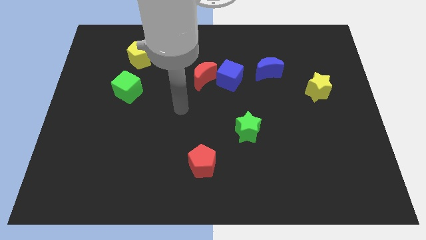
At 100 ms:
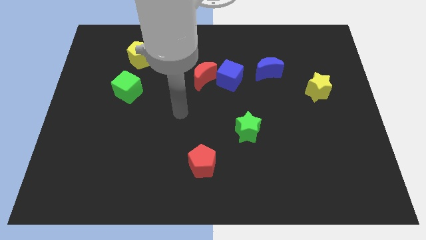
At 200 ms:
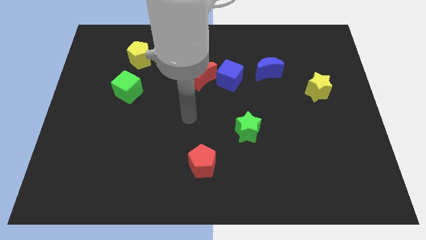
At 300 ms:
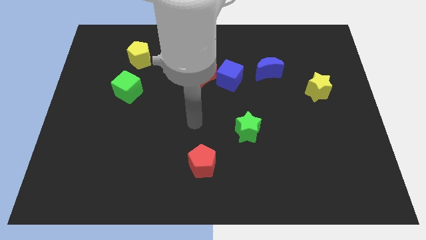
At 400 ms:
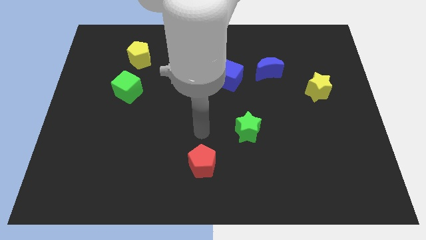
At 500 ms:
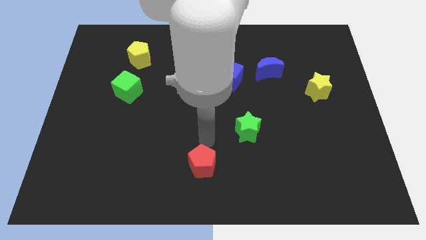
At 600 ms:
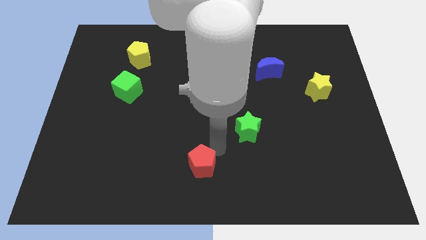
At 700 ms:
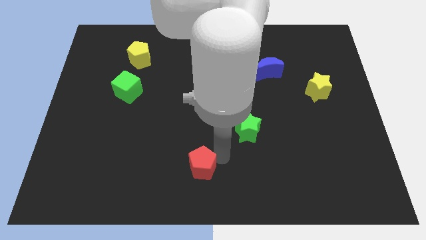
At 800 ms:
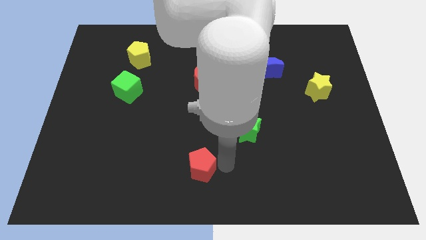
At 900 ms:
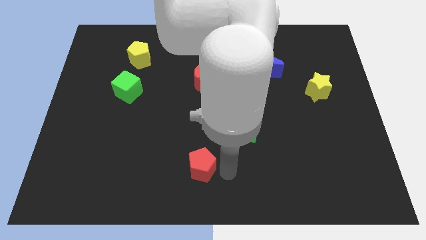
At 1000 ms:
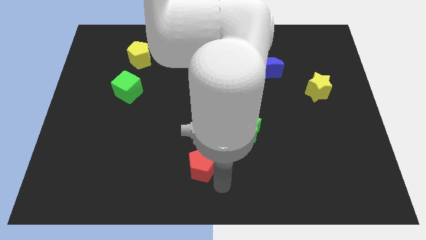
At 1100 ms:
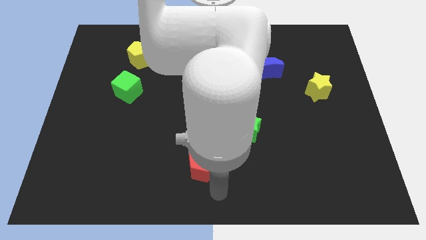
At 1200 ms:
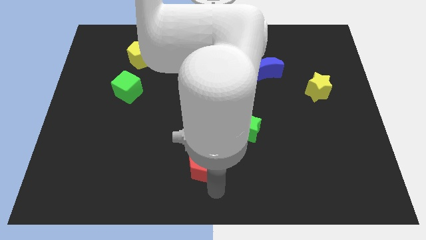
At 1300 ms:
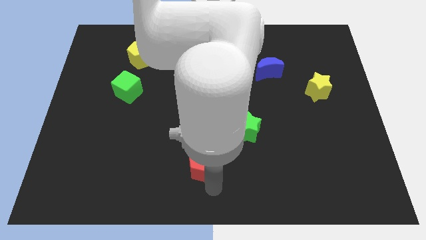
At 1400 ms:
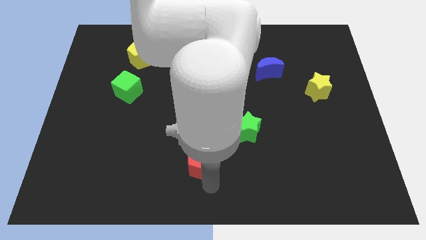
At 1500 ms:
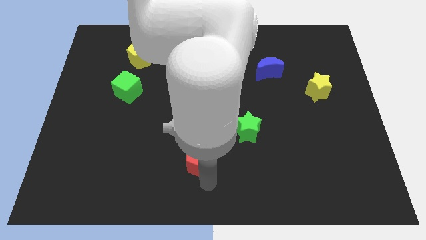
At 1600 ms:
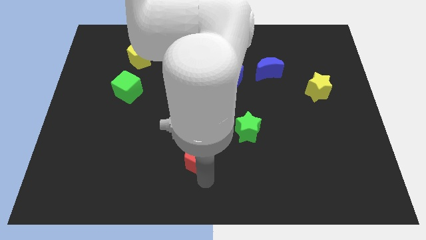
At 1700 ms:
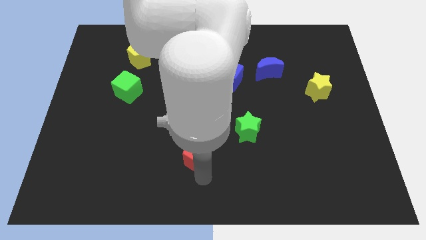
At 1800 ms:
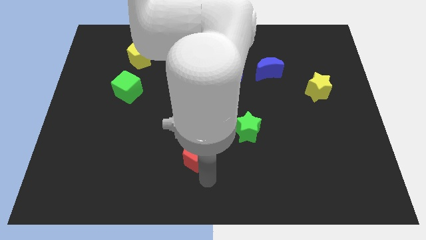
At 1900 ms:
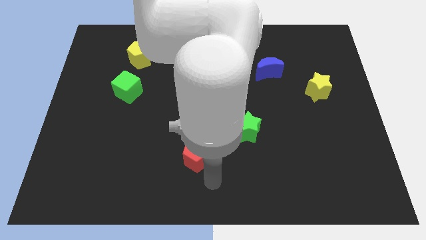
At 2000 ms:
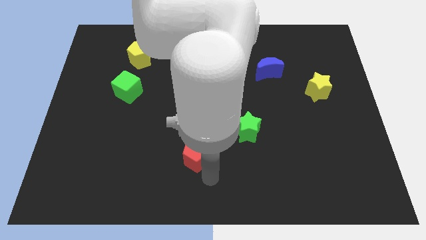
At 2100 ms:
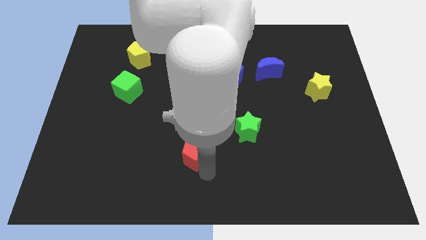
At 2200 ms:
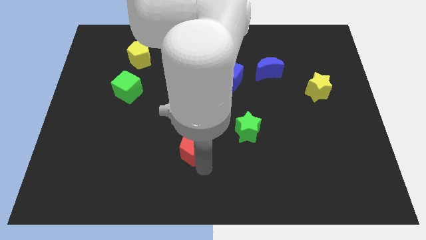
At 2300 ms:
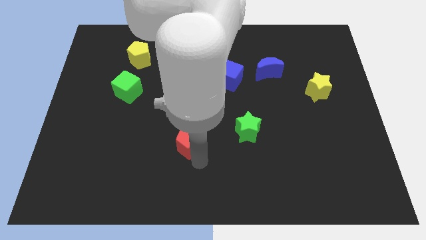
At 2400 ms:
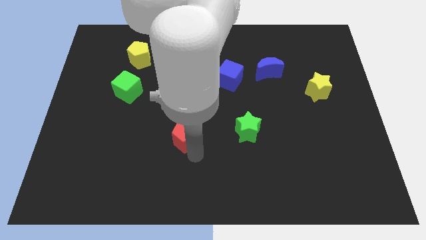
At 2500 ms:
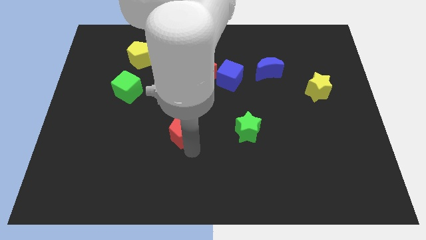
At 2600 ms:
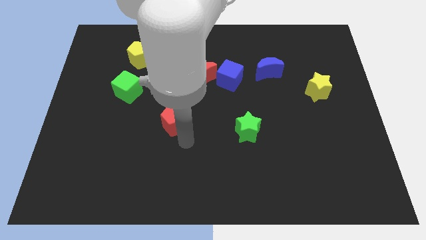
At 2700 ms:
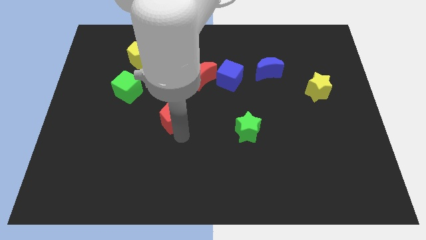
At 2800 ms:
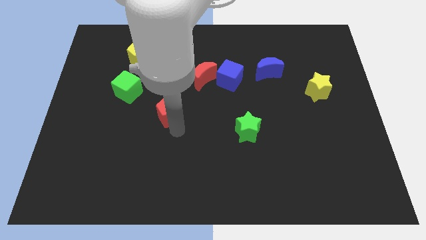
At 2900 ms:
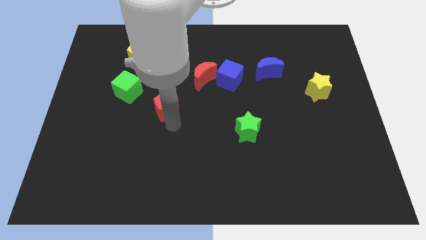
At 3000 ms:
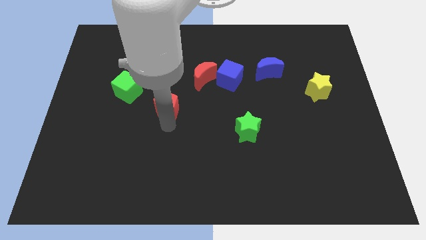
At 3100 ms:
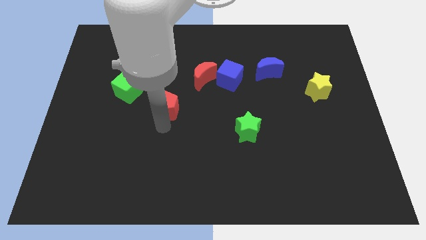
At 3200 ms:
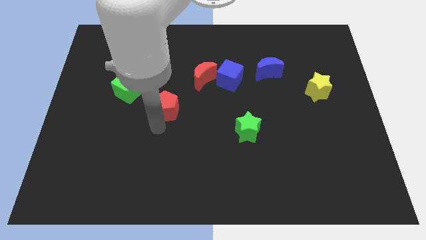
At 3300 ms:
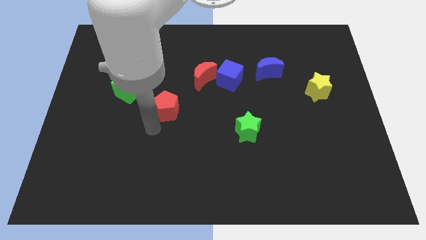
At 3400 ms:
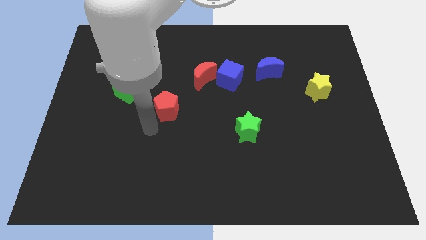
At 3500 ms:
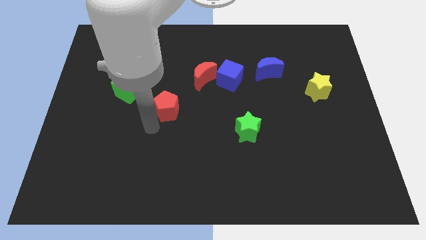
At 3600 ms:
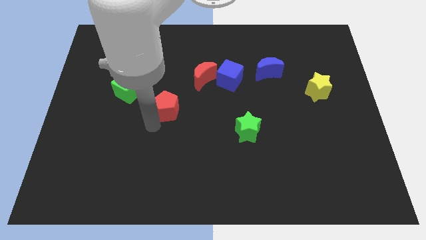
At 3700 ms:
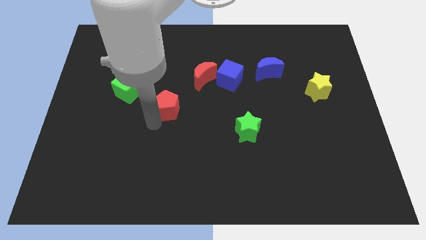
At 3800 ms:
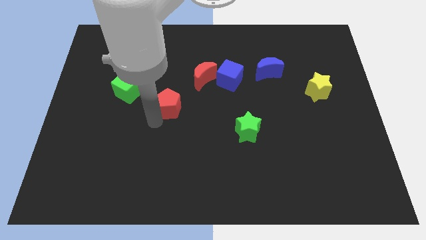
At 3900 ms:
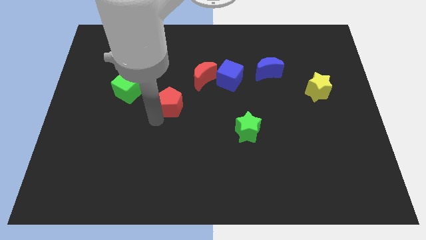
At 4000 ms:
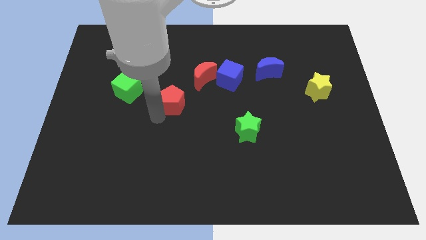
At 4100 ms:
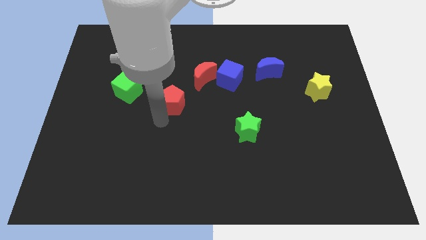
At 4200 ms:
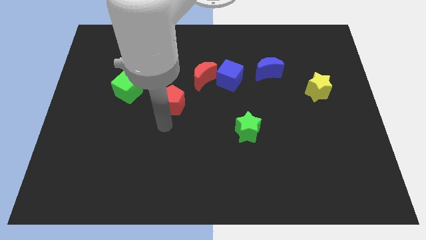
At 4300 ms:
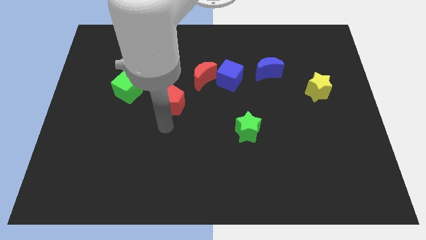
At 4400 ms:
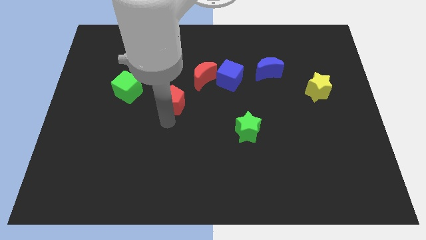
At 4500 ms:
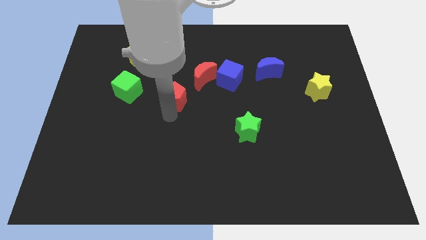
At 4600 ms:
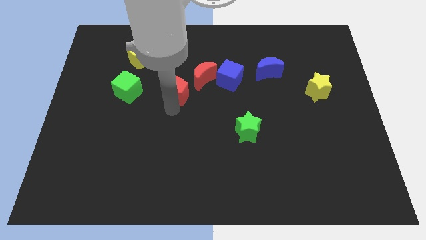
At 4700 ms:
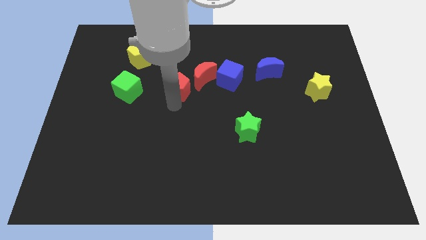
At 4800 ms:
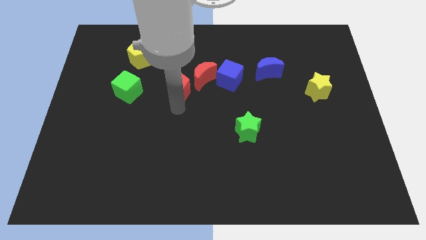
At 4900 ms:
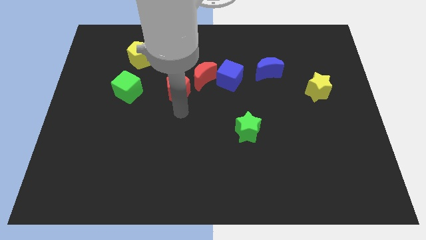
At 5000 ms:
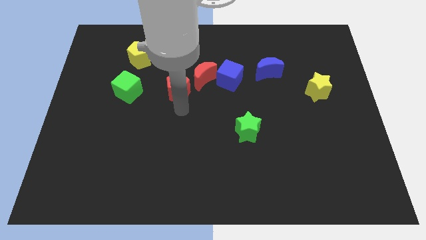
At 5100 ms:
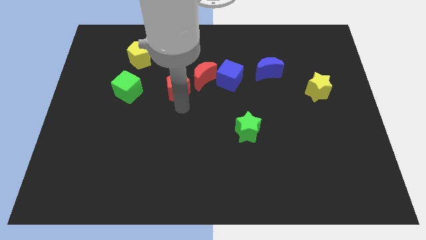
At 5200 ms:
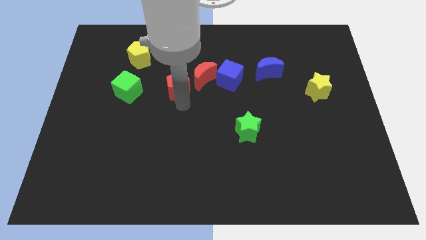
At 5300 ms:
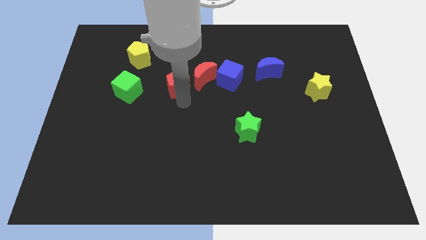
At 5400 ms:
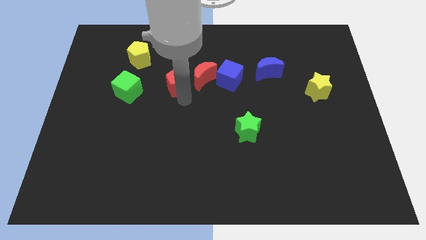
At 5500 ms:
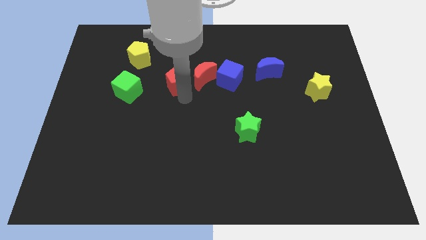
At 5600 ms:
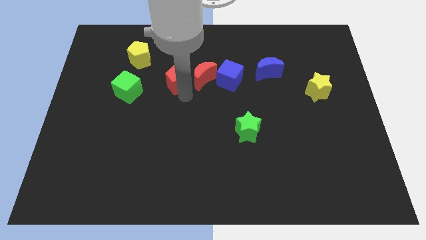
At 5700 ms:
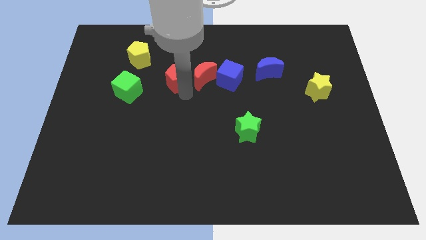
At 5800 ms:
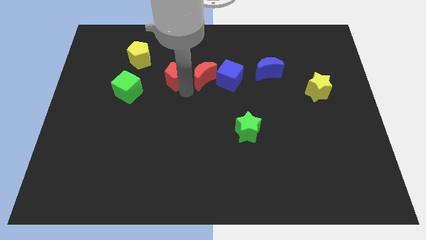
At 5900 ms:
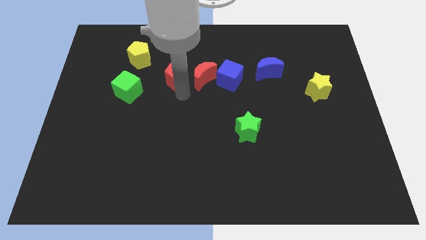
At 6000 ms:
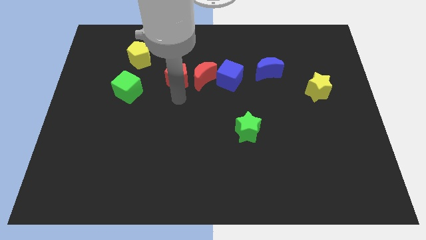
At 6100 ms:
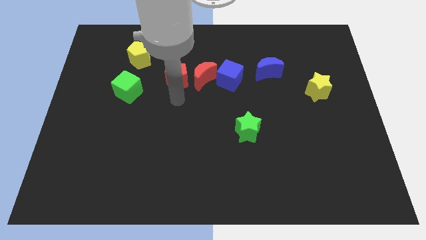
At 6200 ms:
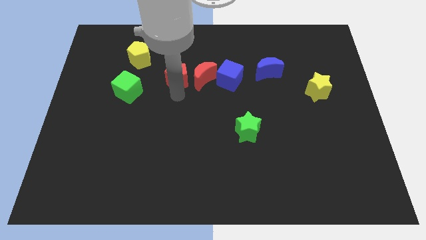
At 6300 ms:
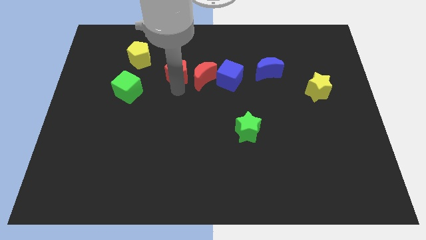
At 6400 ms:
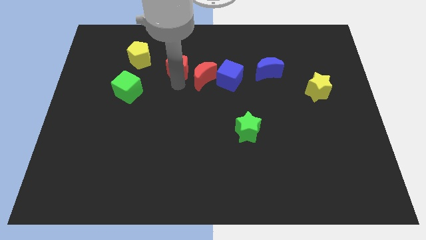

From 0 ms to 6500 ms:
move the red pentagon to the right side of the yellow pentagon

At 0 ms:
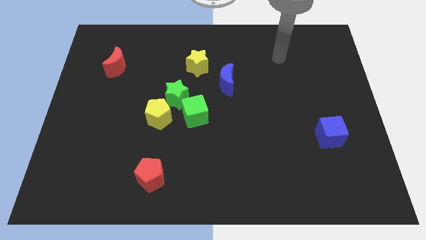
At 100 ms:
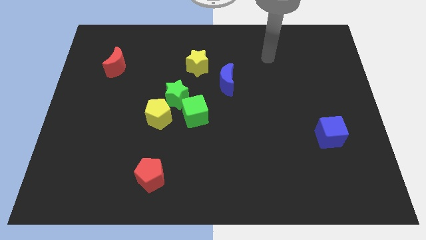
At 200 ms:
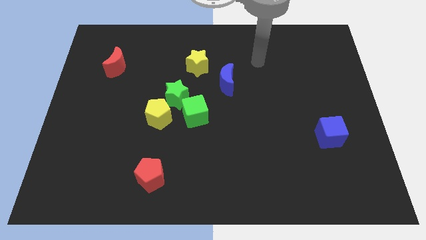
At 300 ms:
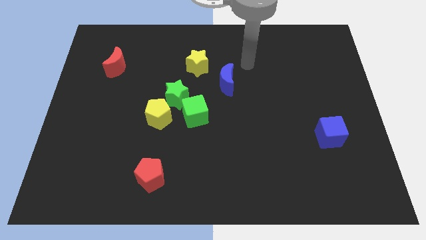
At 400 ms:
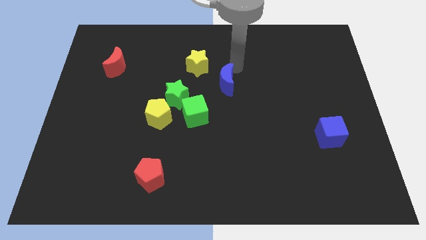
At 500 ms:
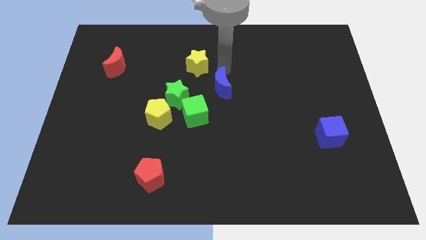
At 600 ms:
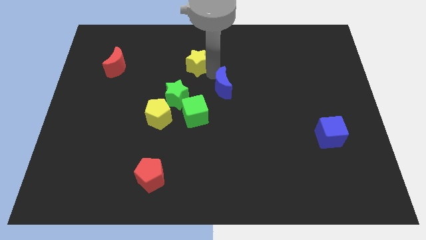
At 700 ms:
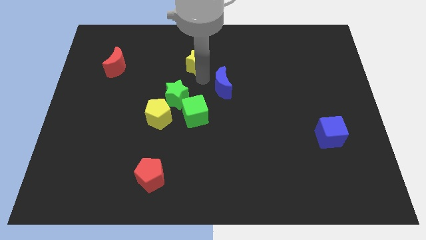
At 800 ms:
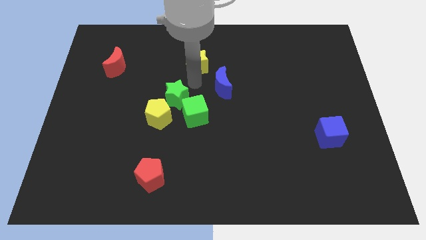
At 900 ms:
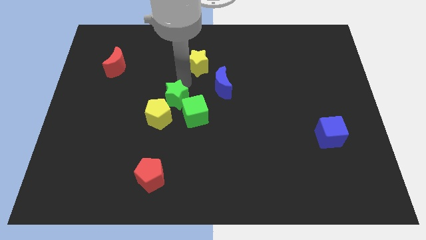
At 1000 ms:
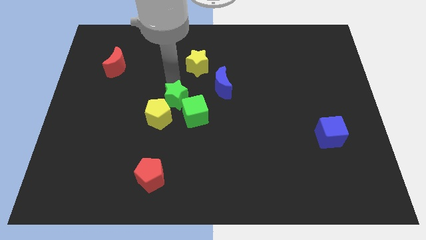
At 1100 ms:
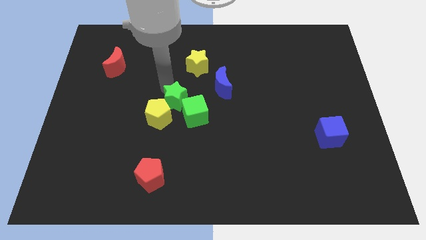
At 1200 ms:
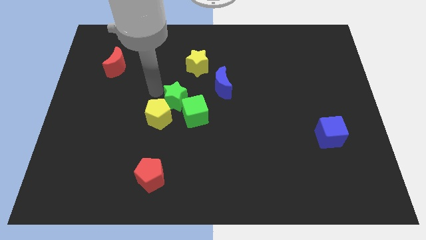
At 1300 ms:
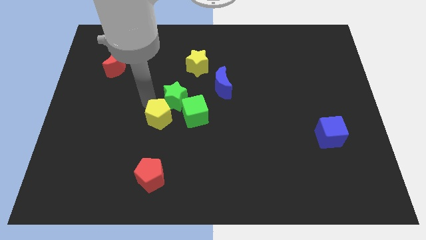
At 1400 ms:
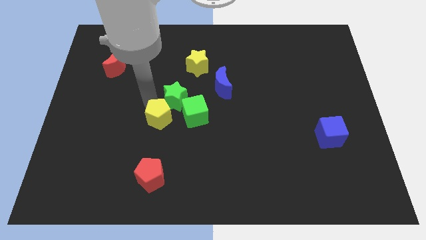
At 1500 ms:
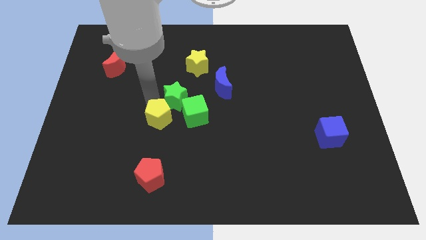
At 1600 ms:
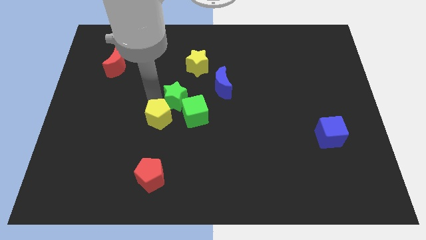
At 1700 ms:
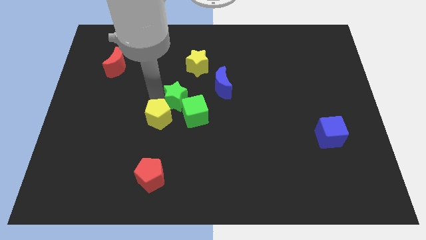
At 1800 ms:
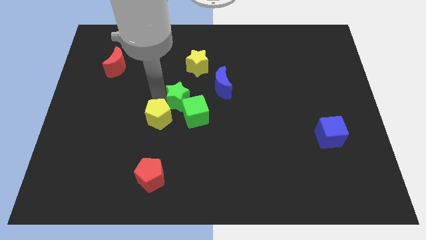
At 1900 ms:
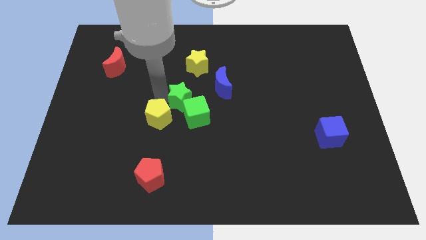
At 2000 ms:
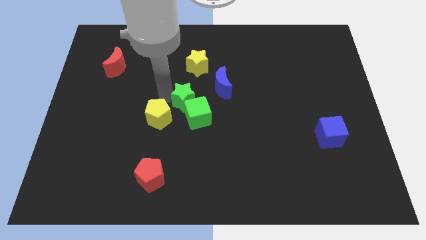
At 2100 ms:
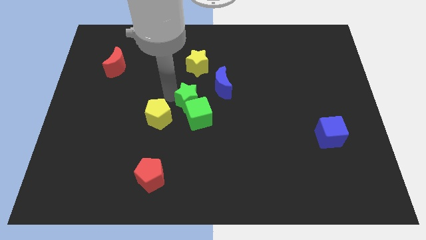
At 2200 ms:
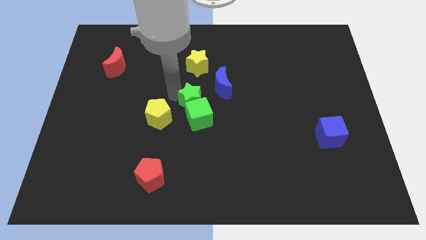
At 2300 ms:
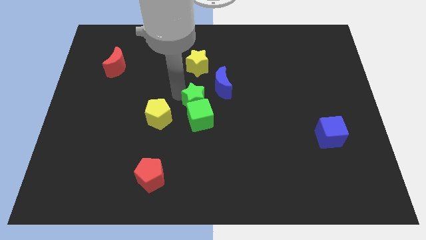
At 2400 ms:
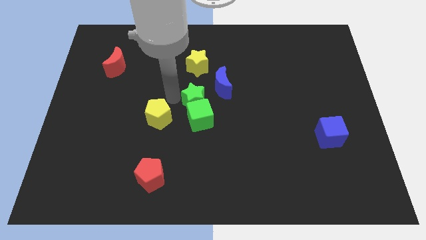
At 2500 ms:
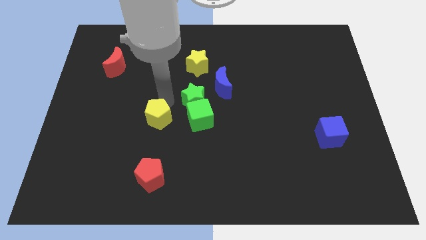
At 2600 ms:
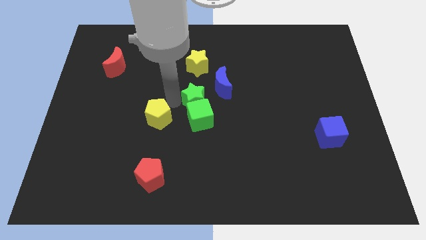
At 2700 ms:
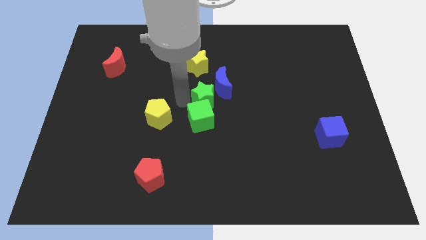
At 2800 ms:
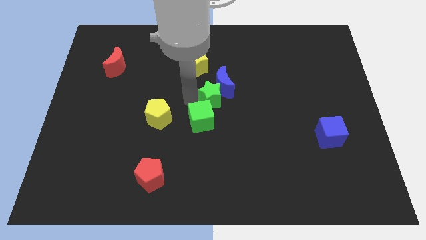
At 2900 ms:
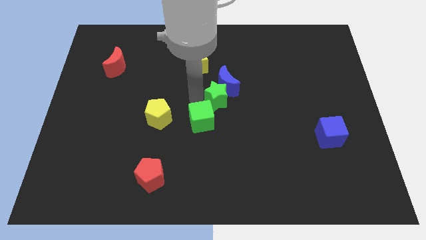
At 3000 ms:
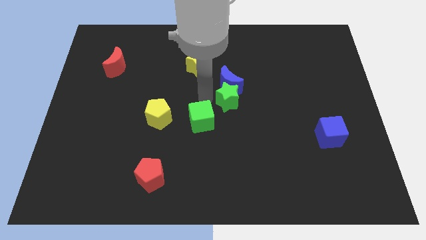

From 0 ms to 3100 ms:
move the green star to the bottom right side of the blue moon
